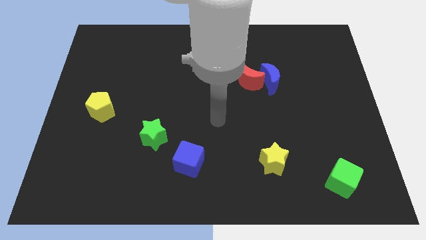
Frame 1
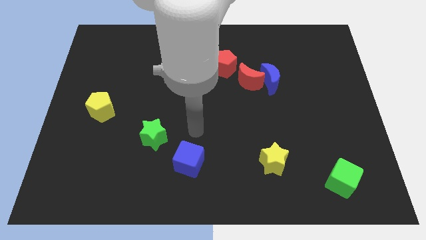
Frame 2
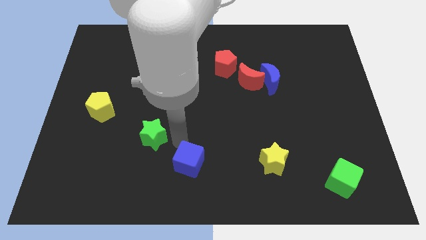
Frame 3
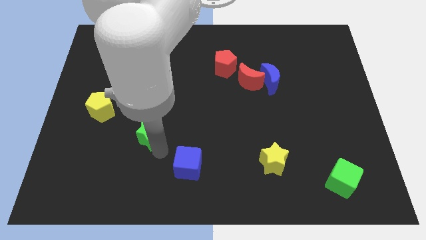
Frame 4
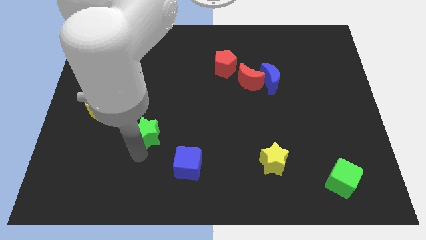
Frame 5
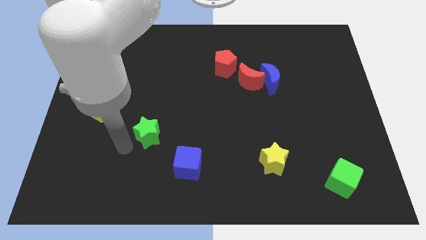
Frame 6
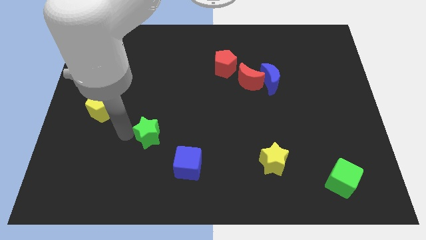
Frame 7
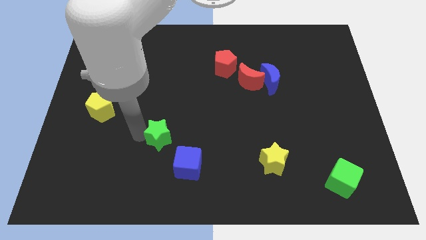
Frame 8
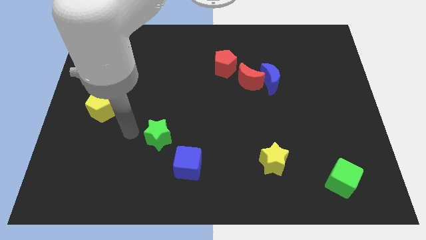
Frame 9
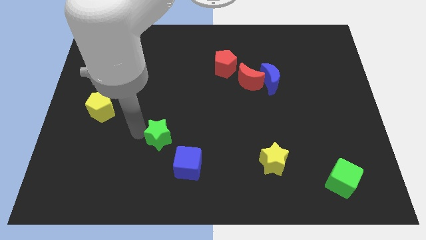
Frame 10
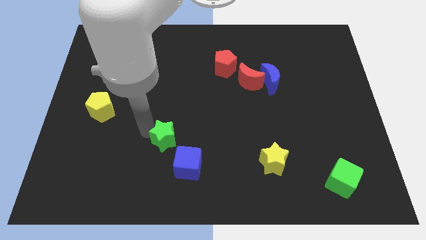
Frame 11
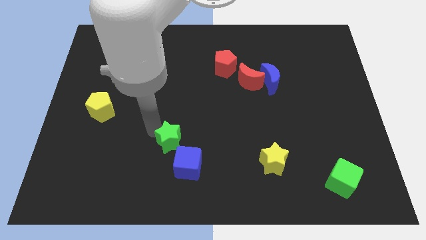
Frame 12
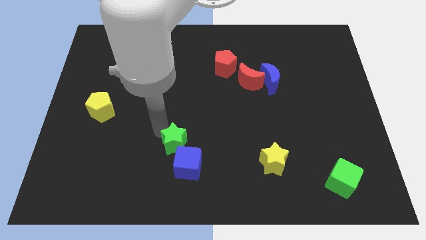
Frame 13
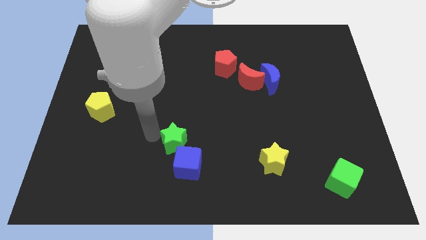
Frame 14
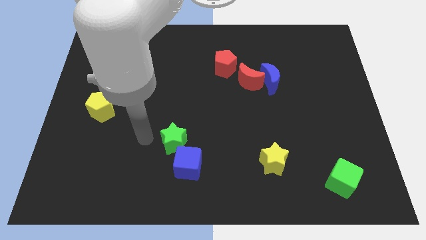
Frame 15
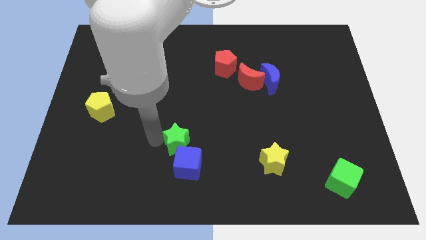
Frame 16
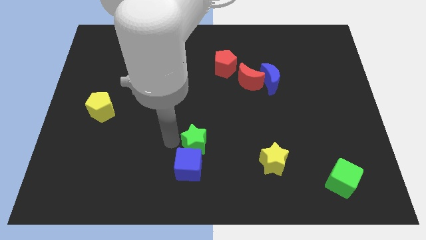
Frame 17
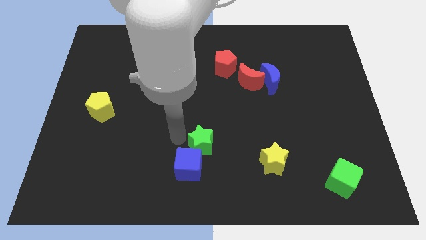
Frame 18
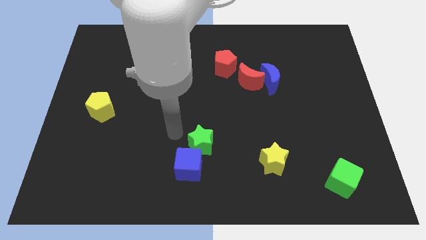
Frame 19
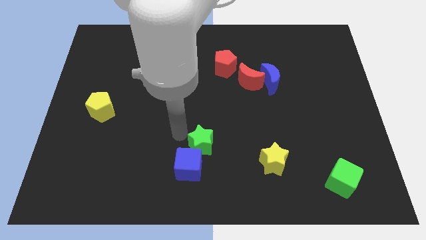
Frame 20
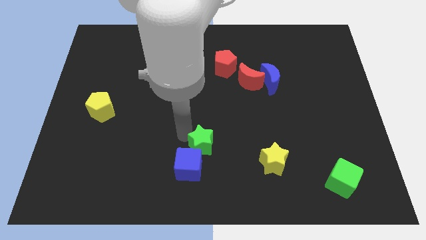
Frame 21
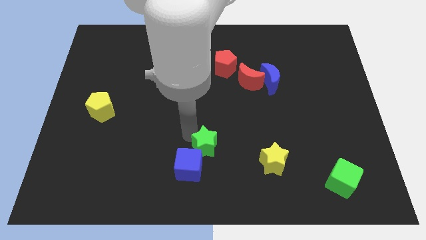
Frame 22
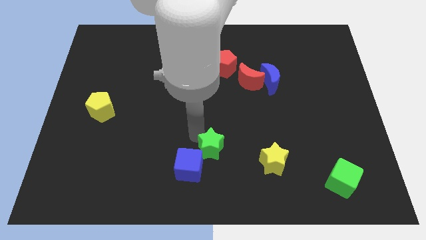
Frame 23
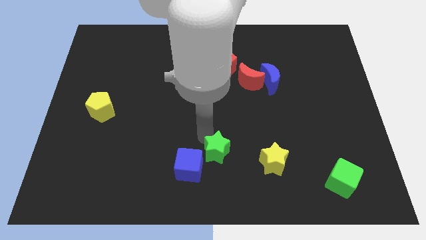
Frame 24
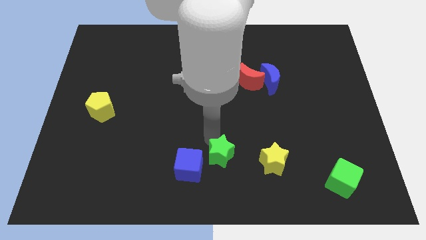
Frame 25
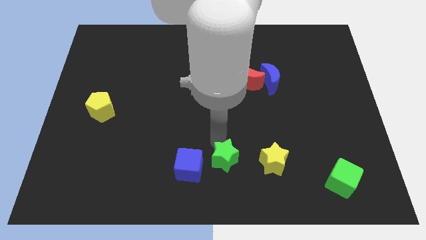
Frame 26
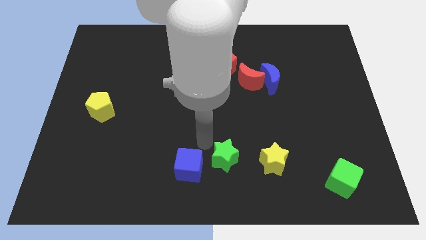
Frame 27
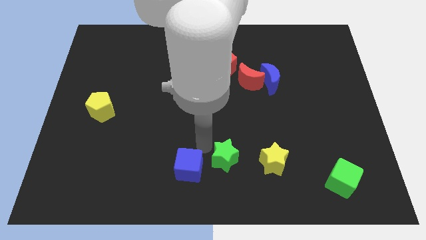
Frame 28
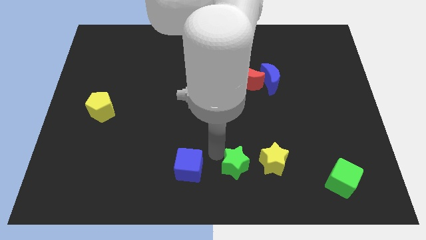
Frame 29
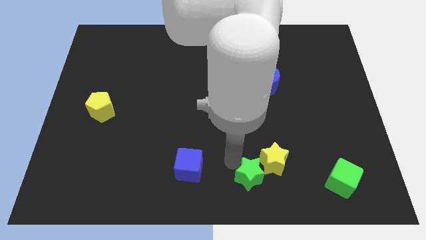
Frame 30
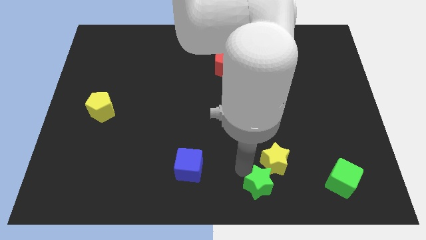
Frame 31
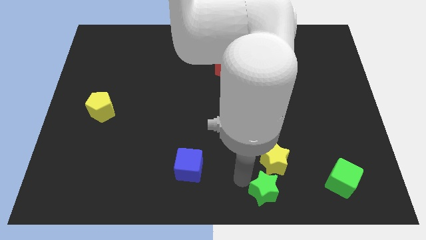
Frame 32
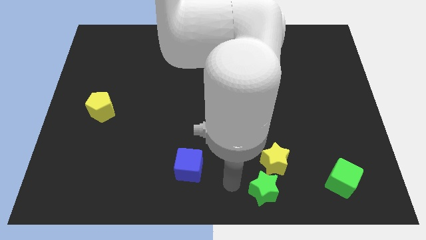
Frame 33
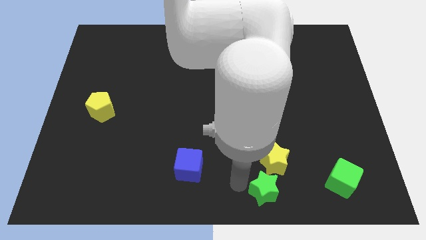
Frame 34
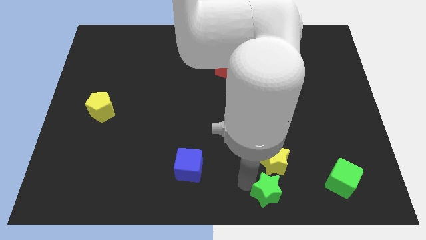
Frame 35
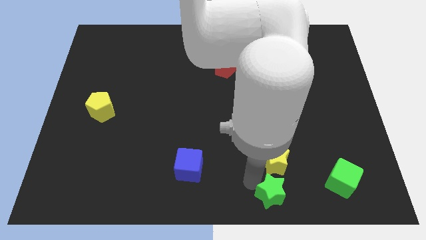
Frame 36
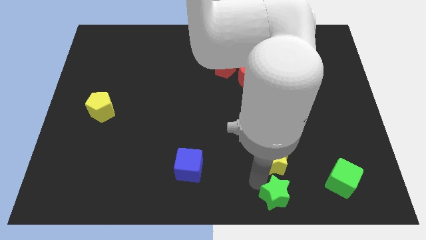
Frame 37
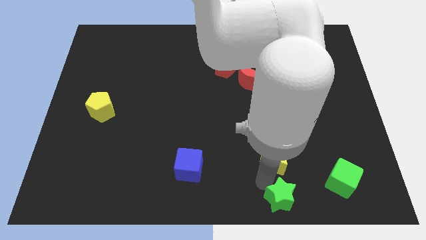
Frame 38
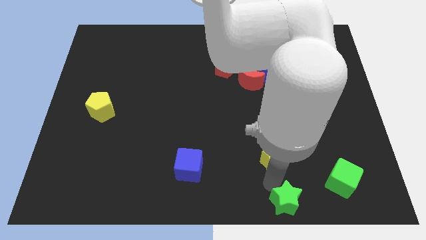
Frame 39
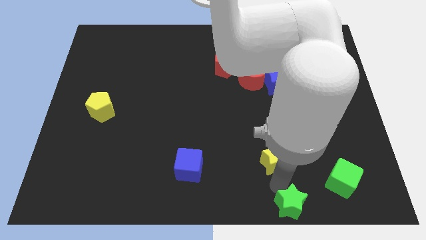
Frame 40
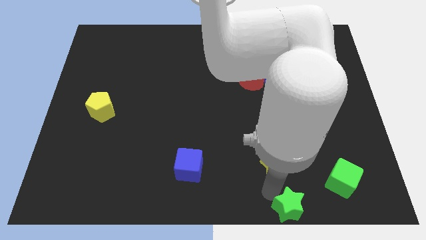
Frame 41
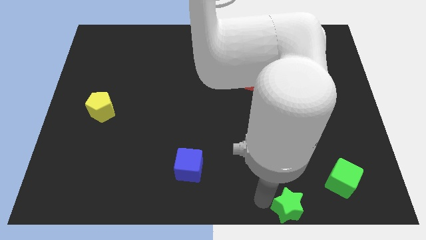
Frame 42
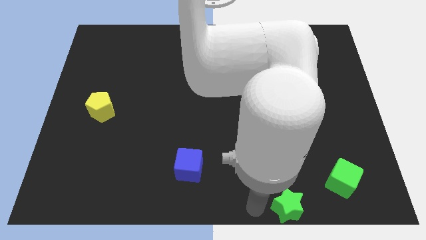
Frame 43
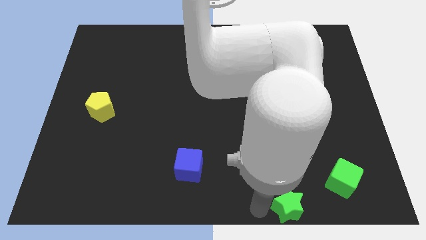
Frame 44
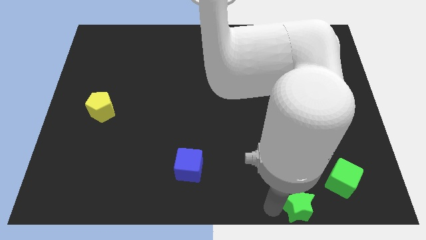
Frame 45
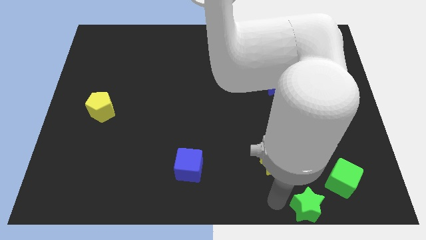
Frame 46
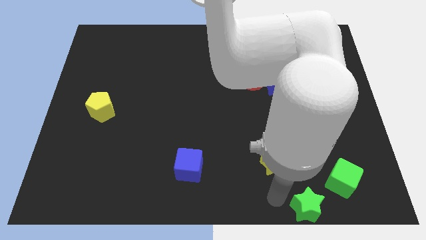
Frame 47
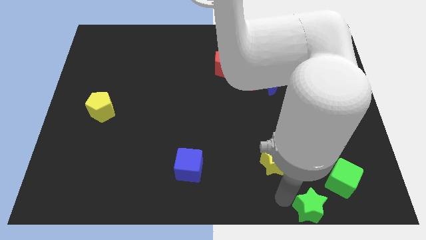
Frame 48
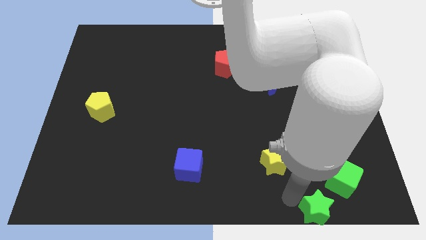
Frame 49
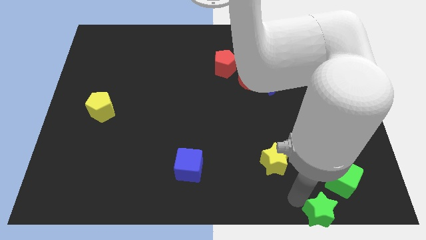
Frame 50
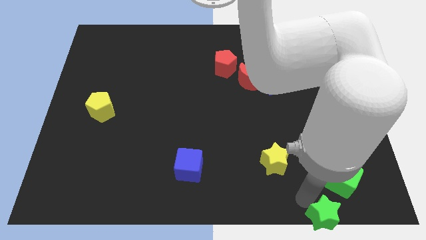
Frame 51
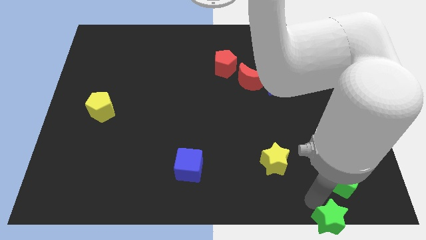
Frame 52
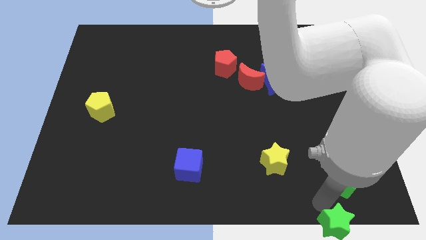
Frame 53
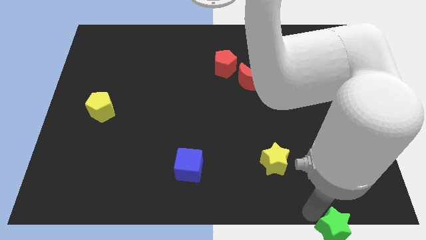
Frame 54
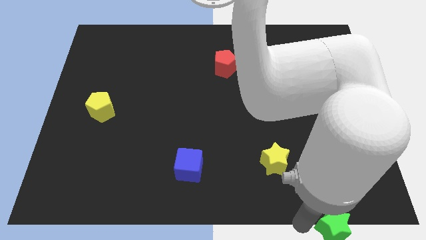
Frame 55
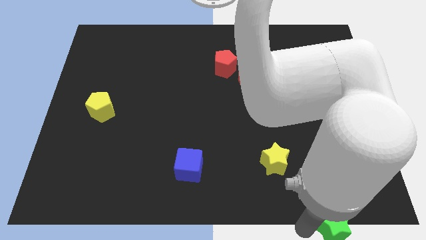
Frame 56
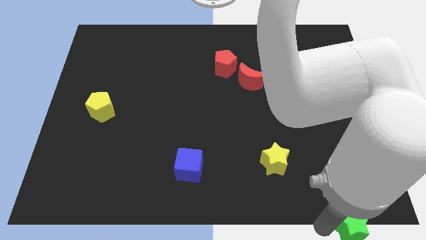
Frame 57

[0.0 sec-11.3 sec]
put the green star to the bottom right corner
